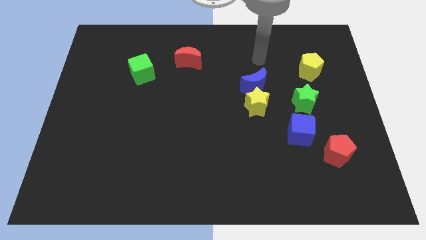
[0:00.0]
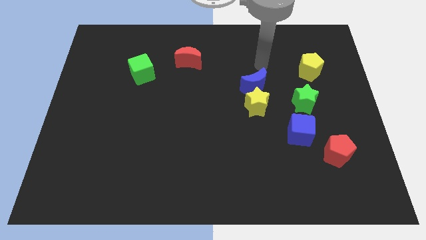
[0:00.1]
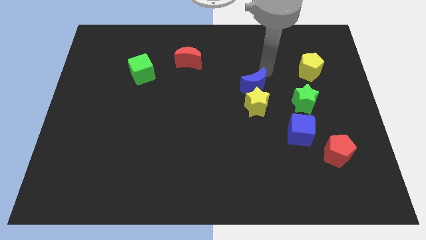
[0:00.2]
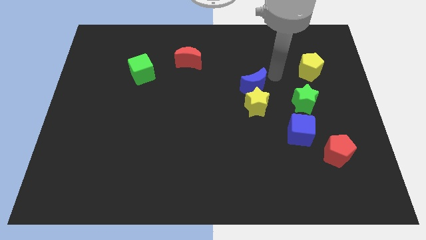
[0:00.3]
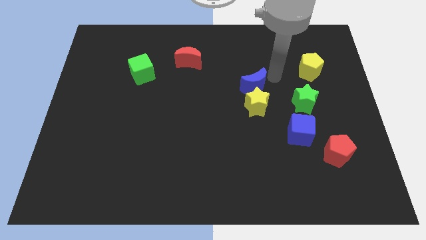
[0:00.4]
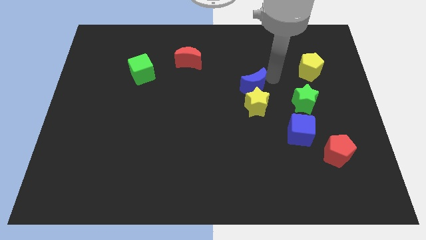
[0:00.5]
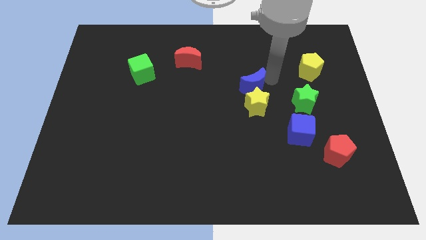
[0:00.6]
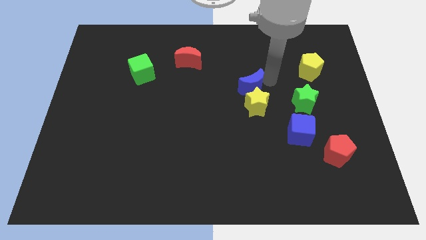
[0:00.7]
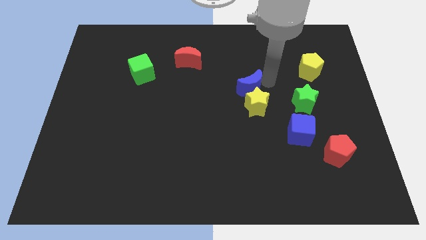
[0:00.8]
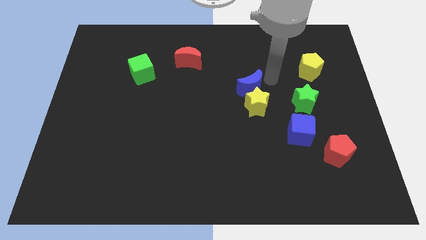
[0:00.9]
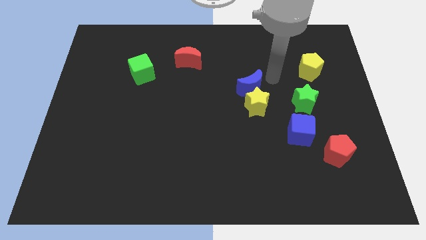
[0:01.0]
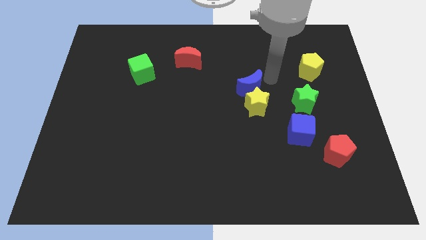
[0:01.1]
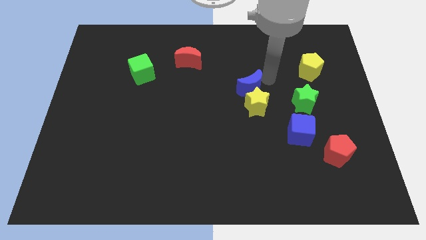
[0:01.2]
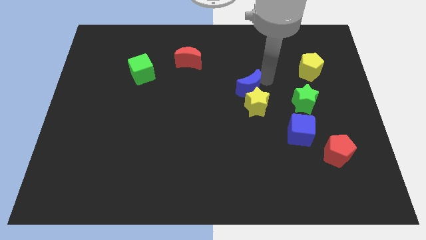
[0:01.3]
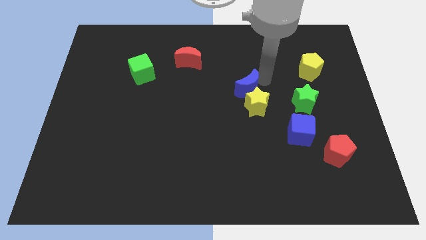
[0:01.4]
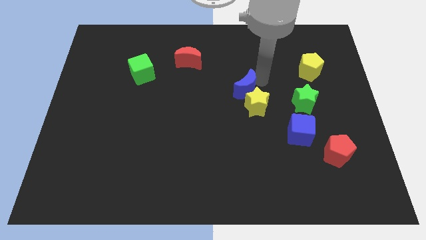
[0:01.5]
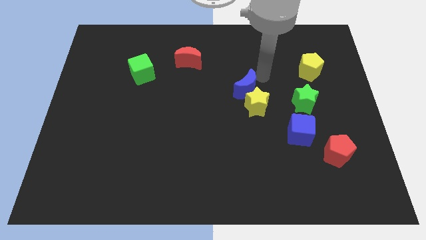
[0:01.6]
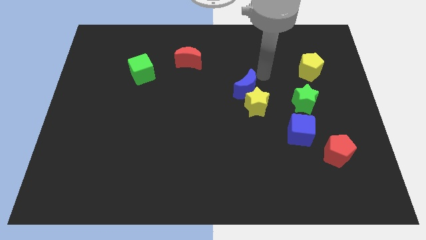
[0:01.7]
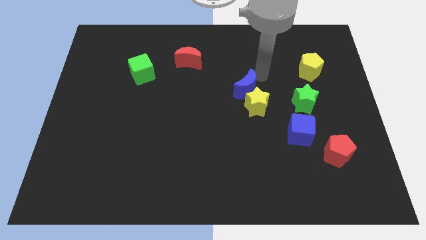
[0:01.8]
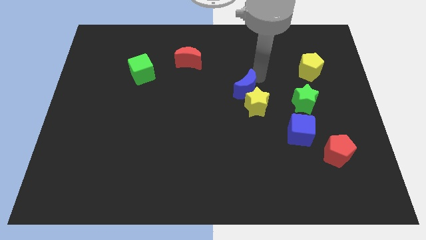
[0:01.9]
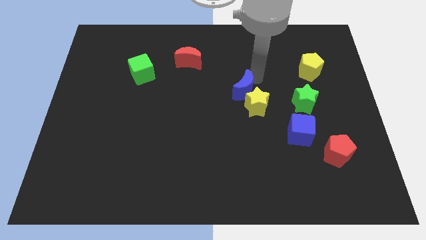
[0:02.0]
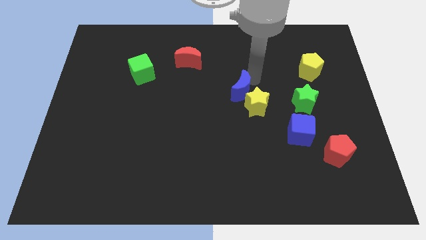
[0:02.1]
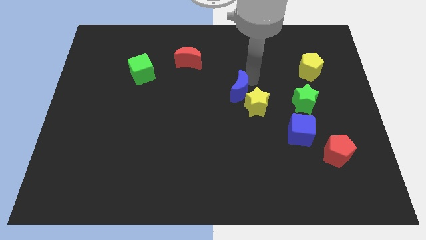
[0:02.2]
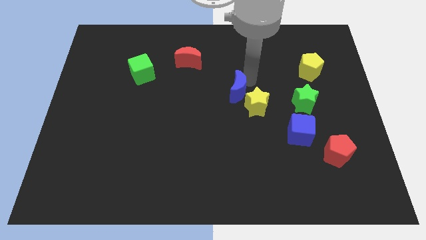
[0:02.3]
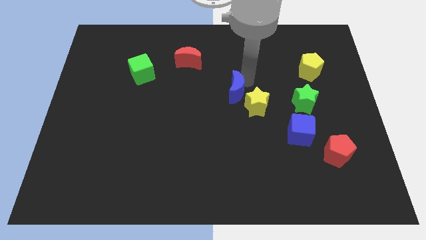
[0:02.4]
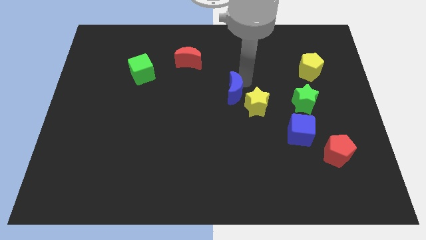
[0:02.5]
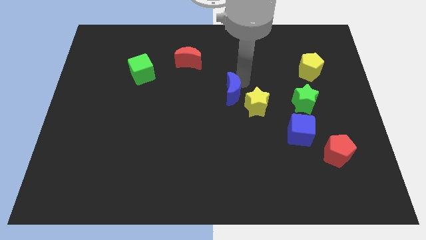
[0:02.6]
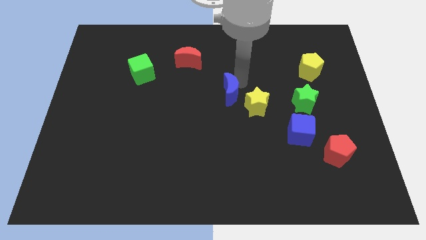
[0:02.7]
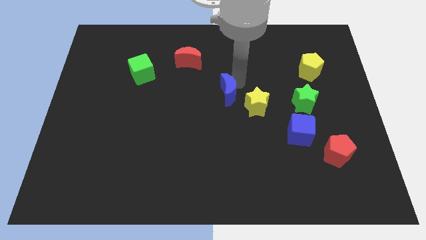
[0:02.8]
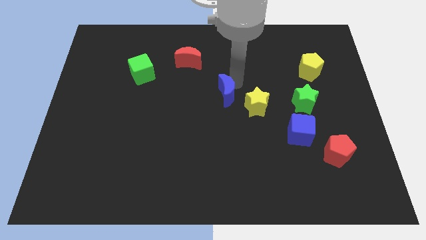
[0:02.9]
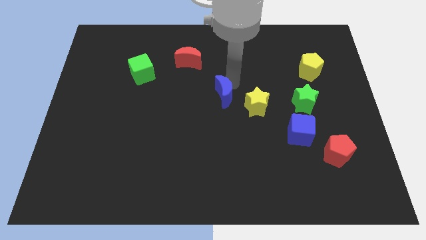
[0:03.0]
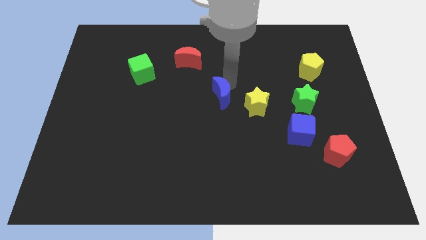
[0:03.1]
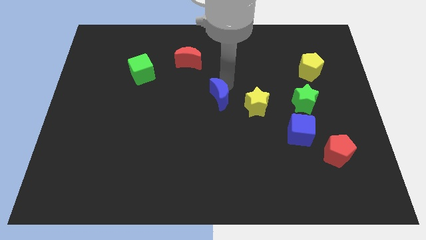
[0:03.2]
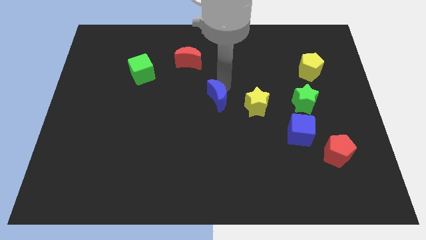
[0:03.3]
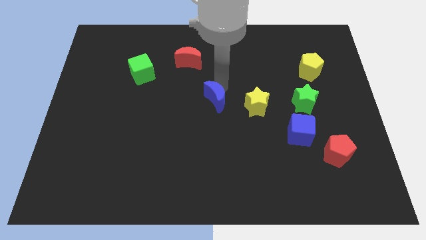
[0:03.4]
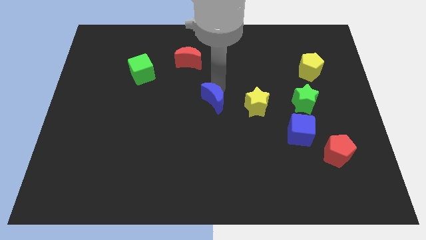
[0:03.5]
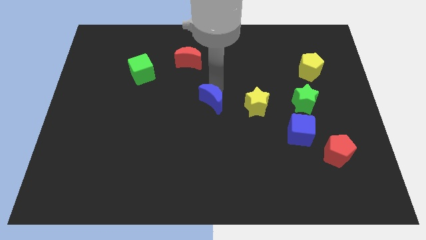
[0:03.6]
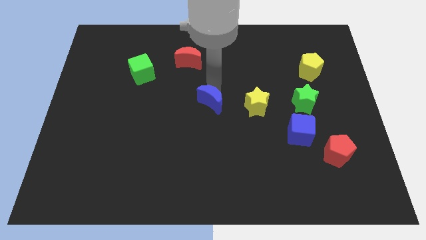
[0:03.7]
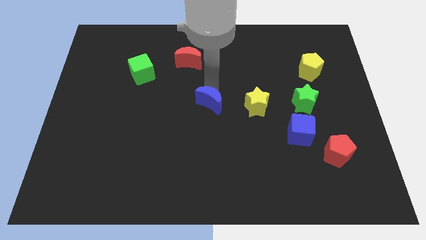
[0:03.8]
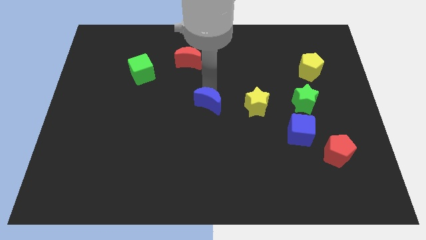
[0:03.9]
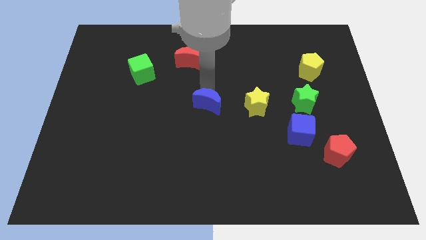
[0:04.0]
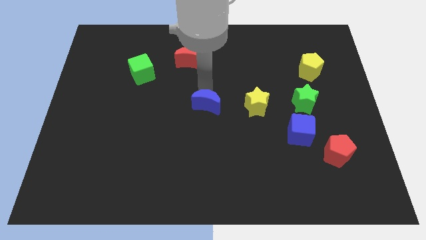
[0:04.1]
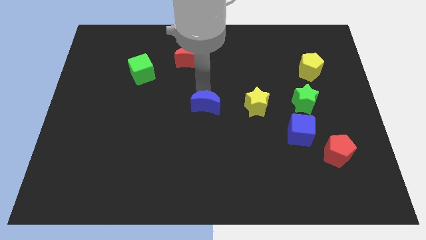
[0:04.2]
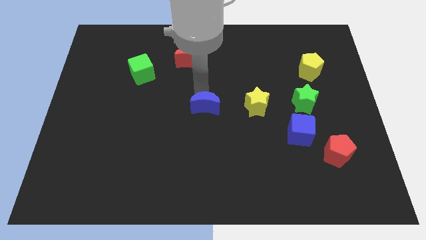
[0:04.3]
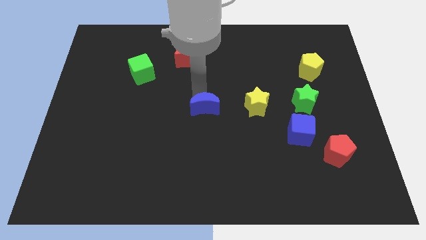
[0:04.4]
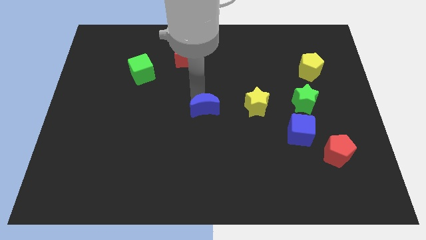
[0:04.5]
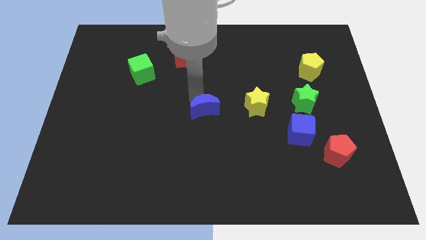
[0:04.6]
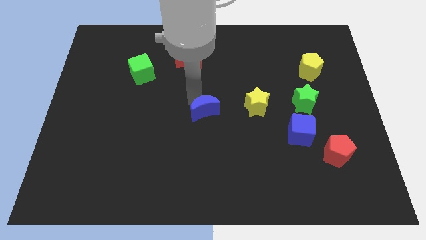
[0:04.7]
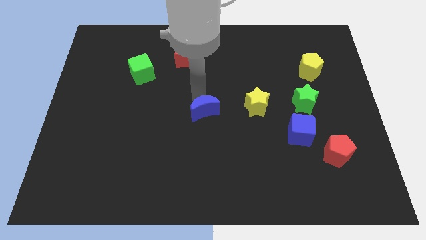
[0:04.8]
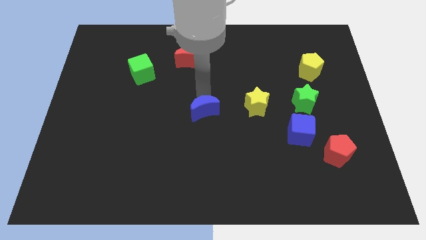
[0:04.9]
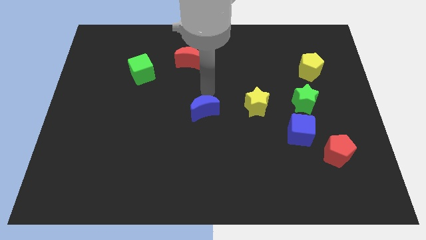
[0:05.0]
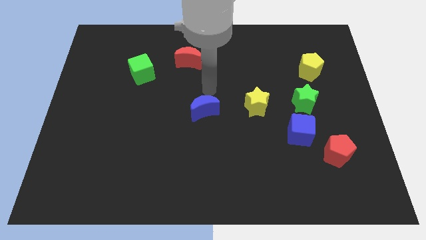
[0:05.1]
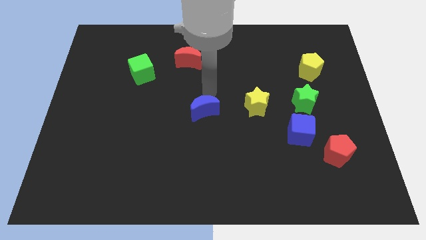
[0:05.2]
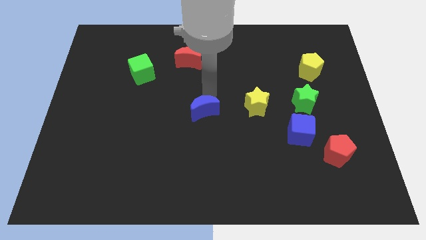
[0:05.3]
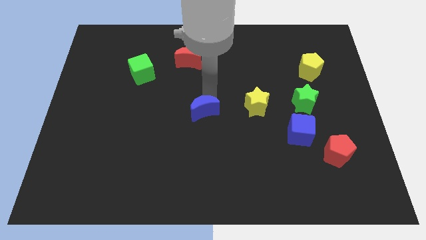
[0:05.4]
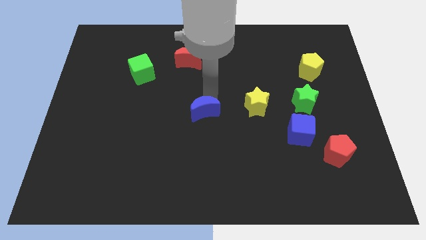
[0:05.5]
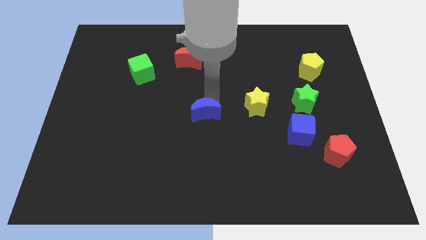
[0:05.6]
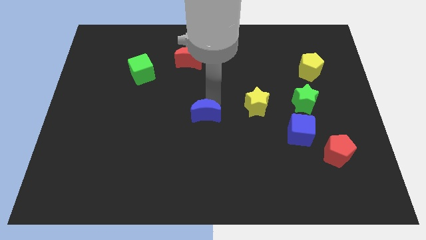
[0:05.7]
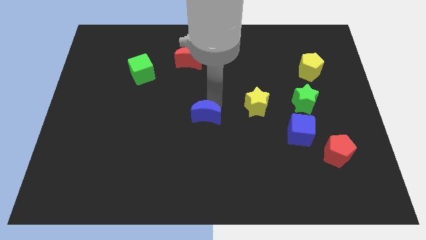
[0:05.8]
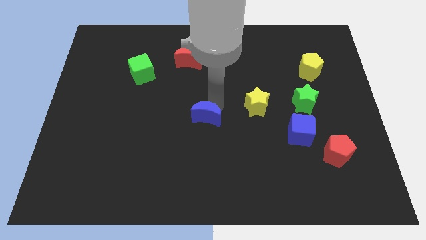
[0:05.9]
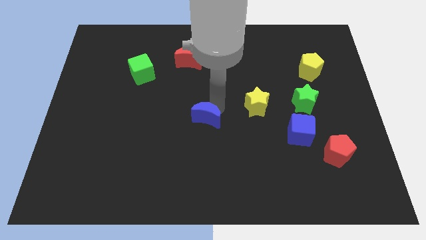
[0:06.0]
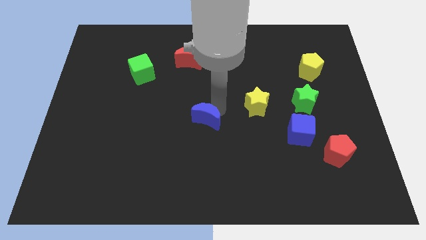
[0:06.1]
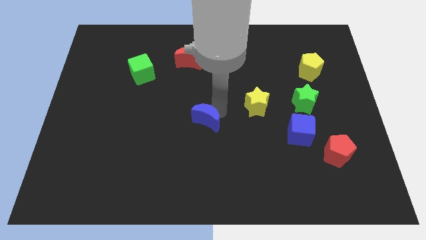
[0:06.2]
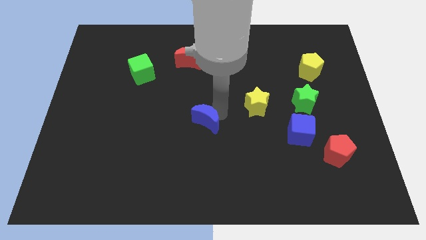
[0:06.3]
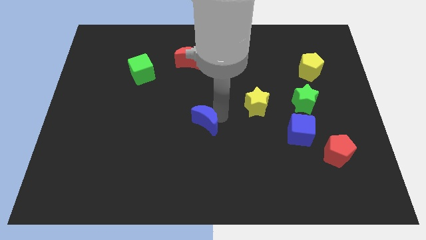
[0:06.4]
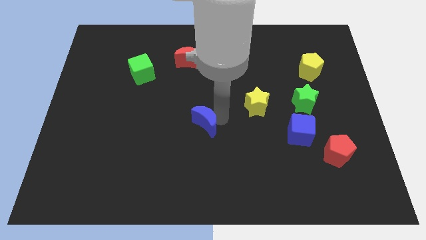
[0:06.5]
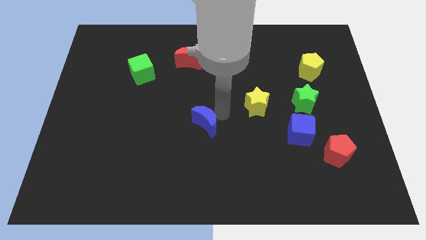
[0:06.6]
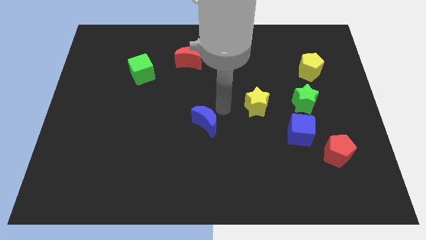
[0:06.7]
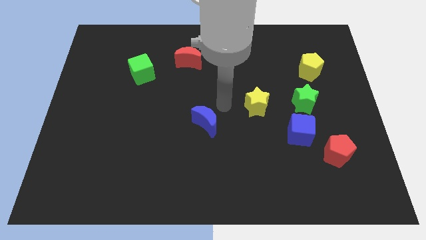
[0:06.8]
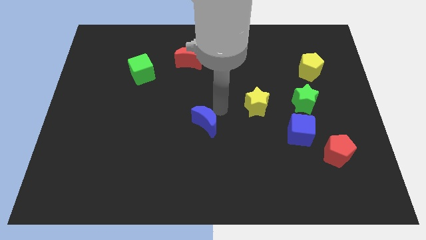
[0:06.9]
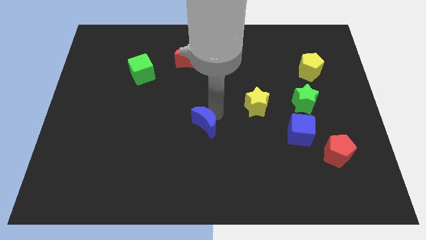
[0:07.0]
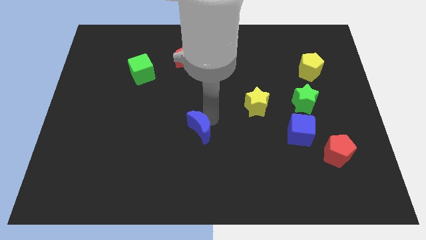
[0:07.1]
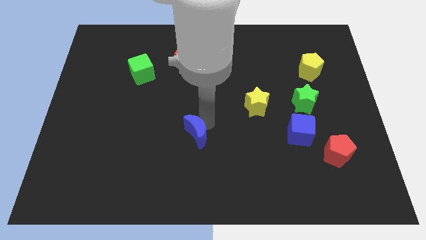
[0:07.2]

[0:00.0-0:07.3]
move the blue moon down and then left

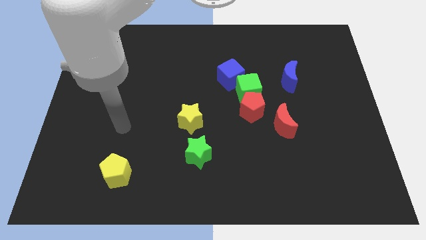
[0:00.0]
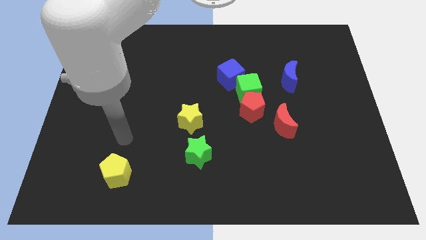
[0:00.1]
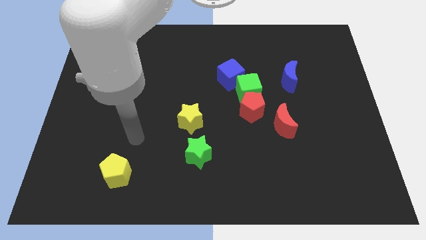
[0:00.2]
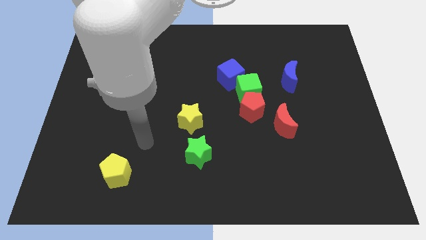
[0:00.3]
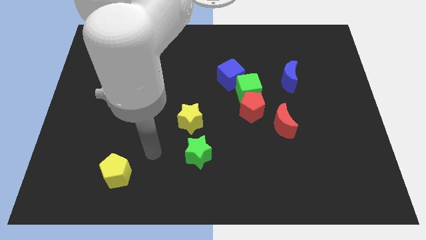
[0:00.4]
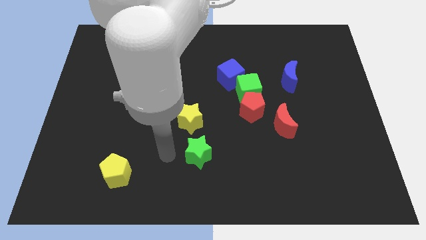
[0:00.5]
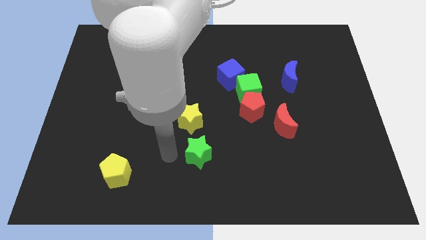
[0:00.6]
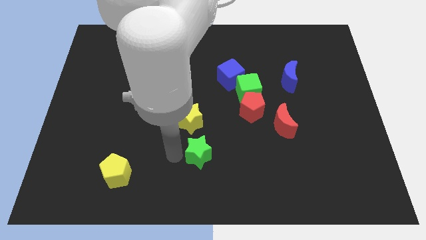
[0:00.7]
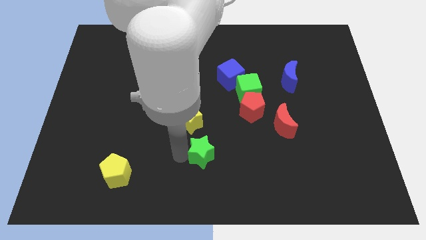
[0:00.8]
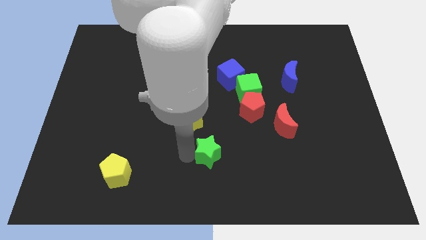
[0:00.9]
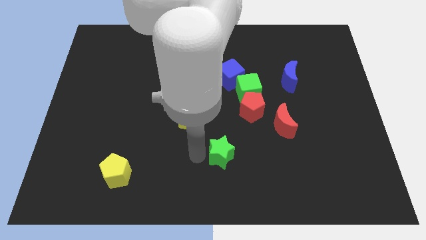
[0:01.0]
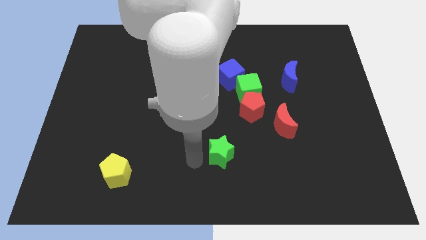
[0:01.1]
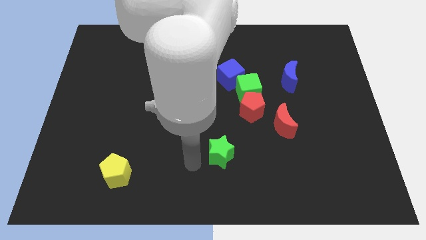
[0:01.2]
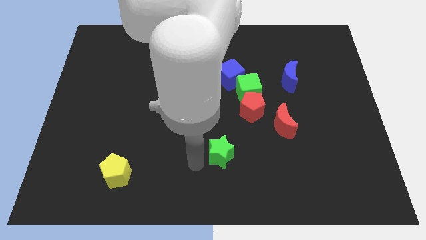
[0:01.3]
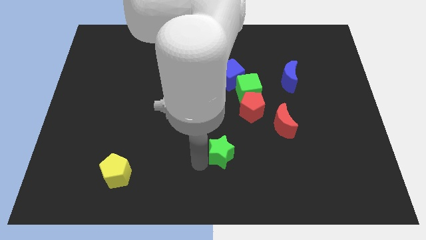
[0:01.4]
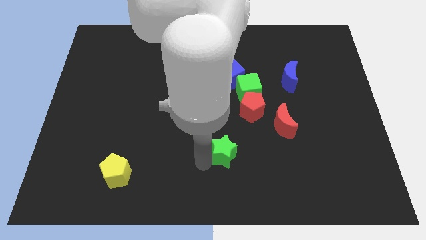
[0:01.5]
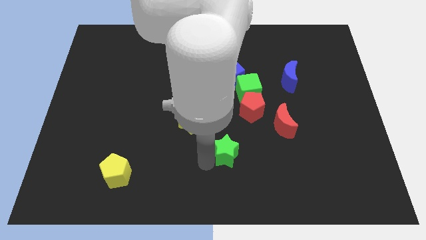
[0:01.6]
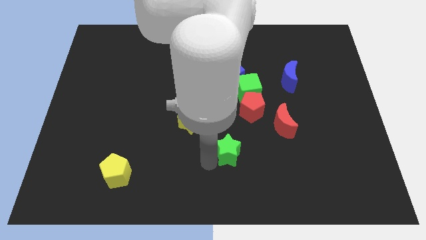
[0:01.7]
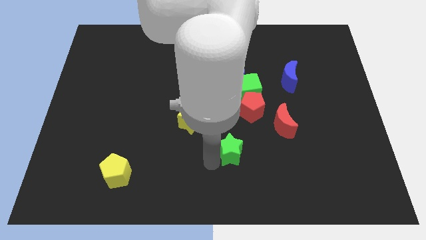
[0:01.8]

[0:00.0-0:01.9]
slightly move the green star right
